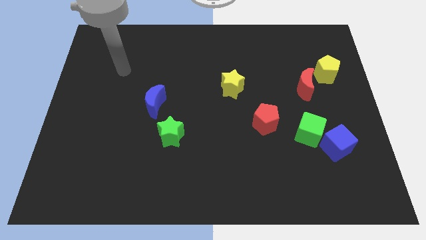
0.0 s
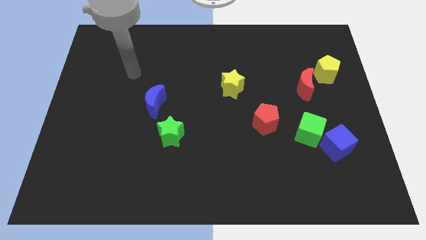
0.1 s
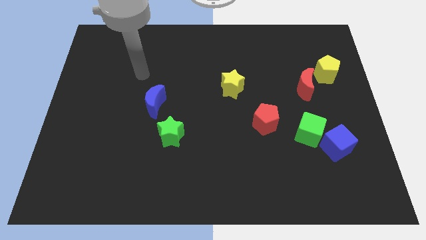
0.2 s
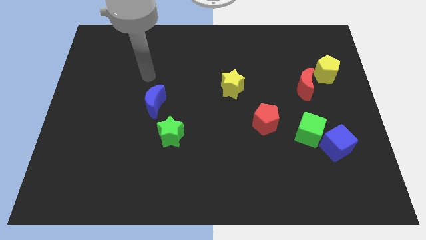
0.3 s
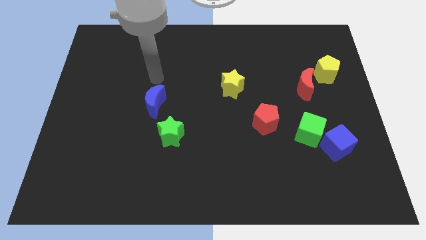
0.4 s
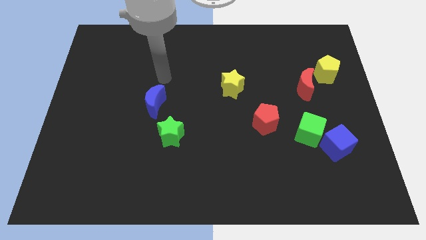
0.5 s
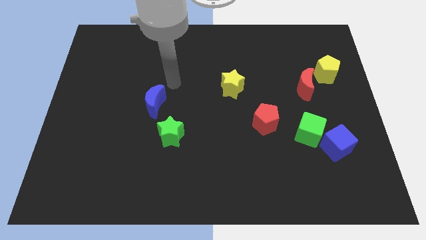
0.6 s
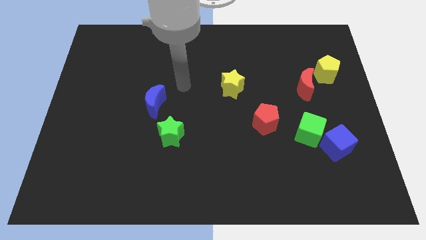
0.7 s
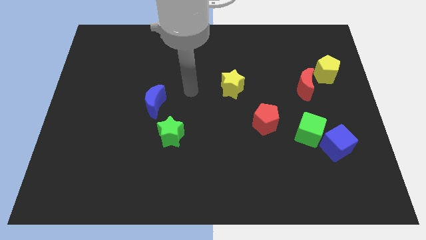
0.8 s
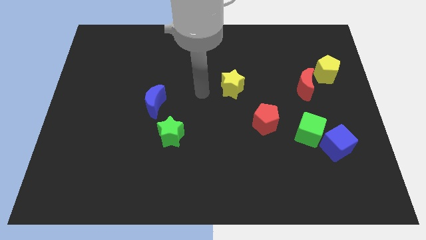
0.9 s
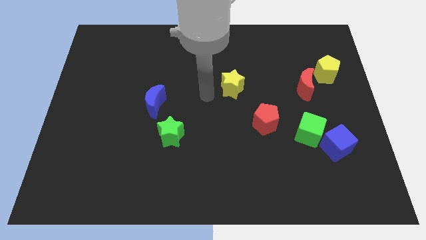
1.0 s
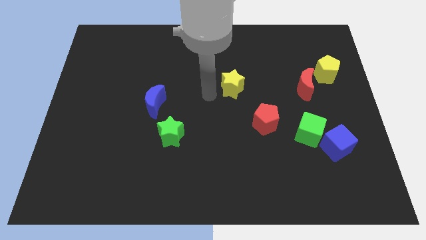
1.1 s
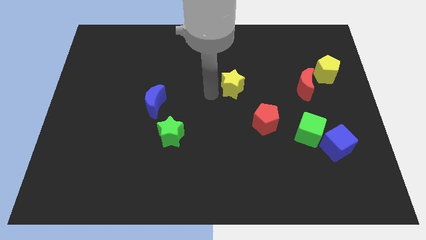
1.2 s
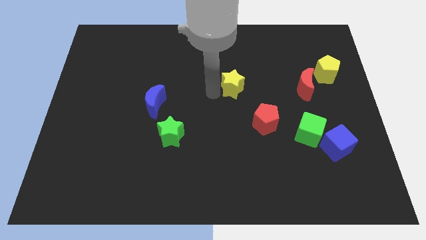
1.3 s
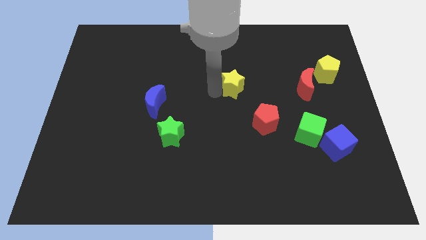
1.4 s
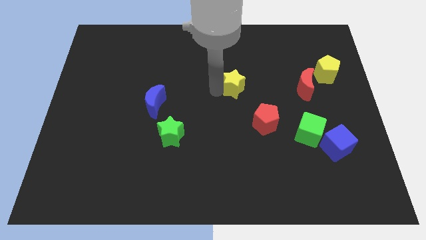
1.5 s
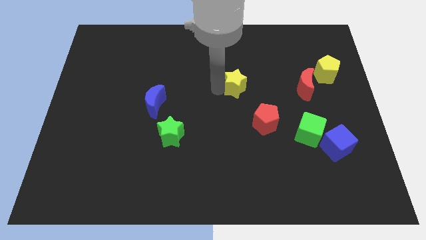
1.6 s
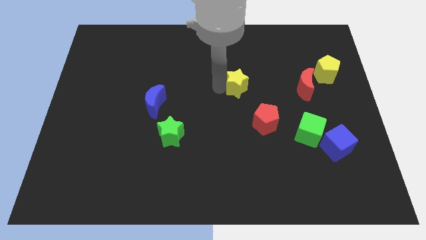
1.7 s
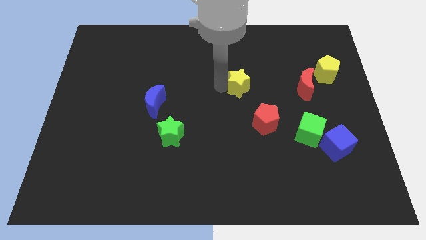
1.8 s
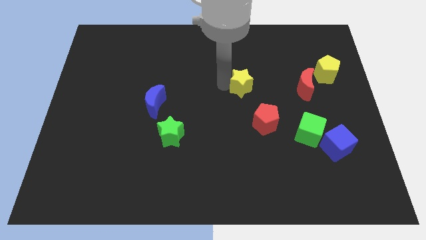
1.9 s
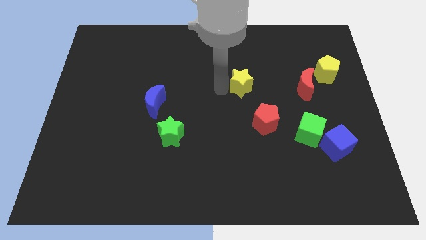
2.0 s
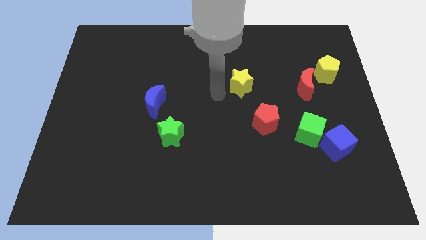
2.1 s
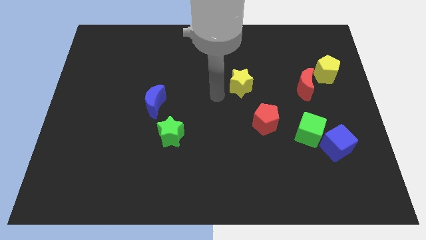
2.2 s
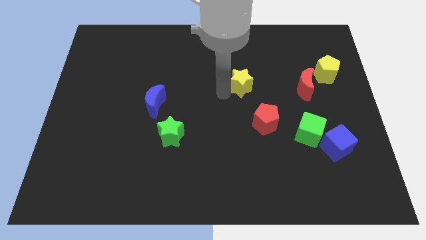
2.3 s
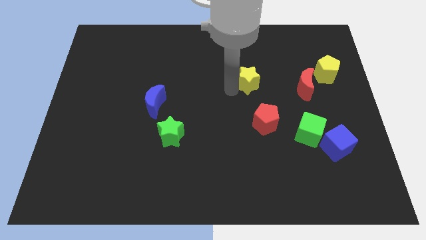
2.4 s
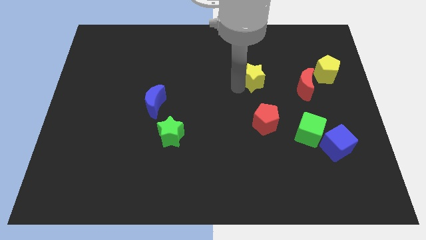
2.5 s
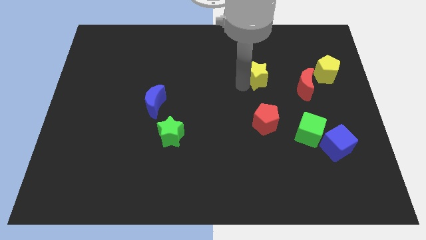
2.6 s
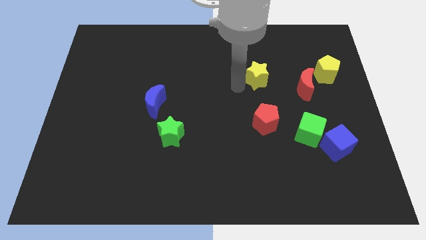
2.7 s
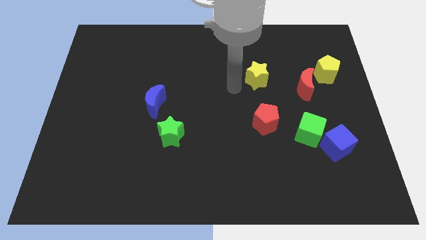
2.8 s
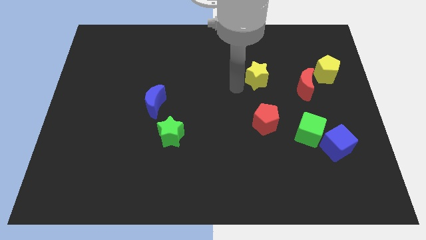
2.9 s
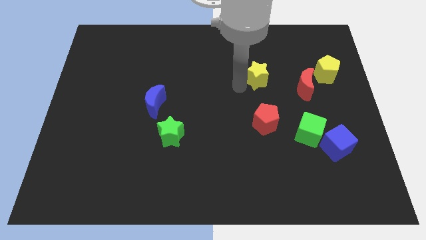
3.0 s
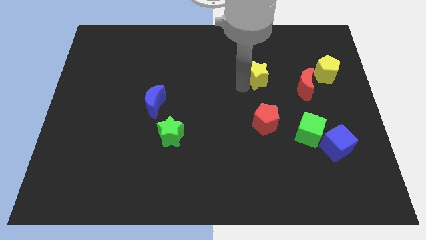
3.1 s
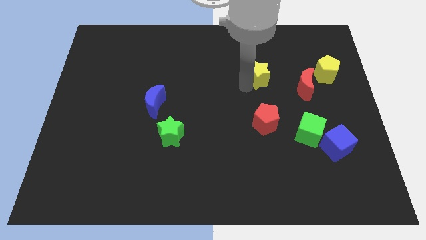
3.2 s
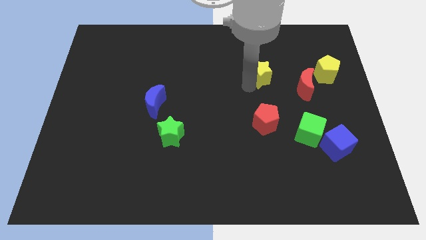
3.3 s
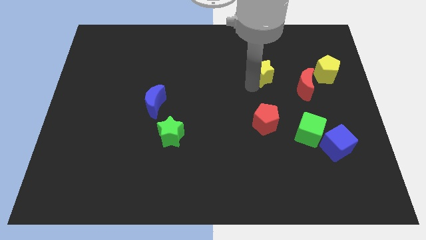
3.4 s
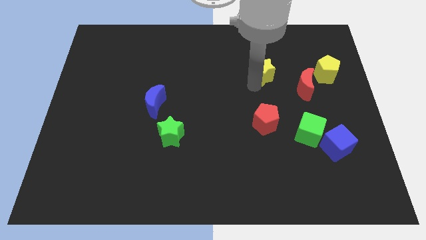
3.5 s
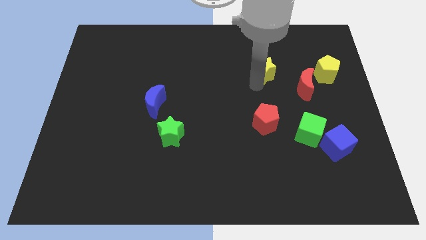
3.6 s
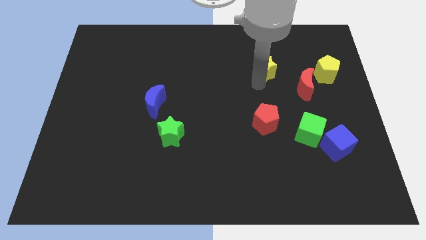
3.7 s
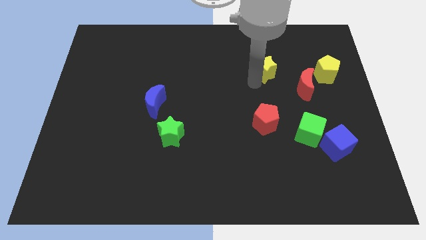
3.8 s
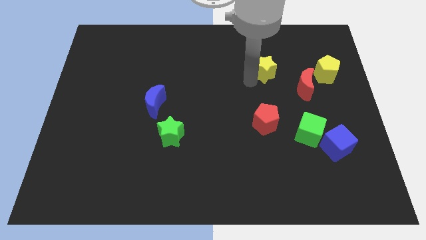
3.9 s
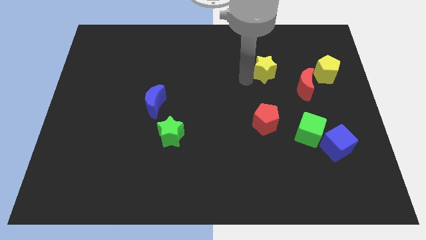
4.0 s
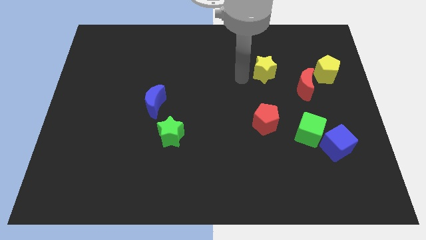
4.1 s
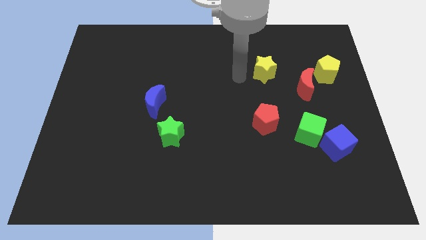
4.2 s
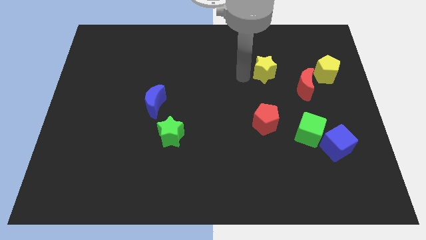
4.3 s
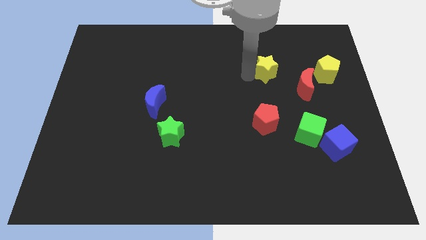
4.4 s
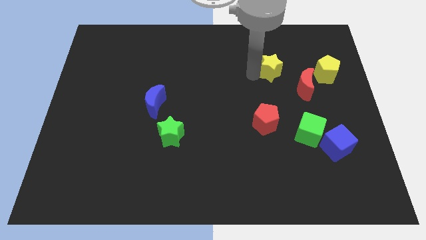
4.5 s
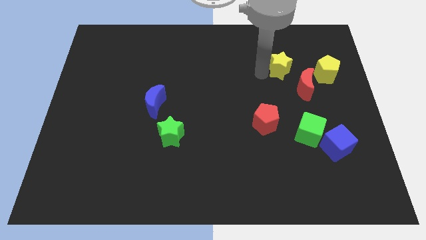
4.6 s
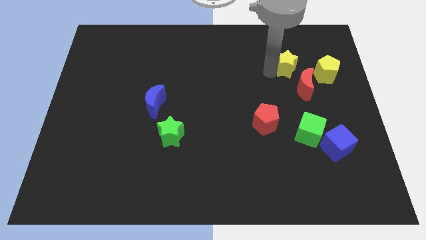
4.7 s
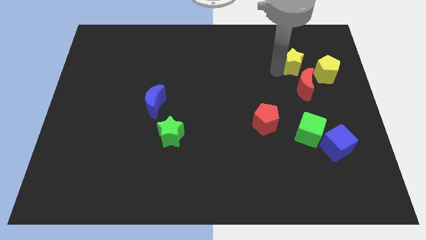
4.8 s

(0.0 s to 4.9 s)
push the yellow star diagonally up and to the left of the yellow pentagon

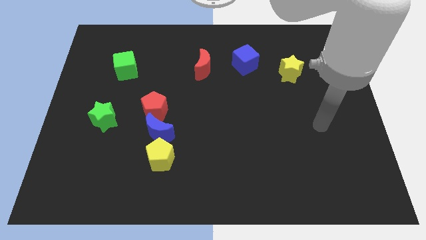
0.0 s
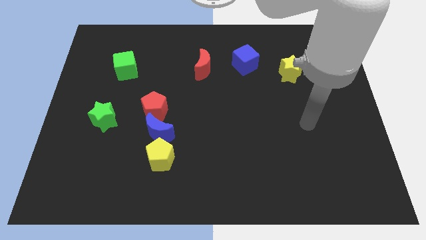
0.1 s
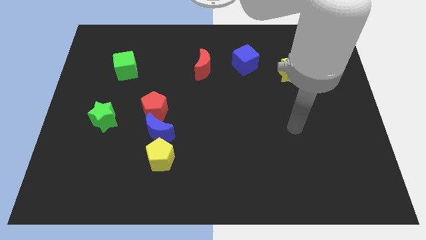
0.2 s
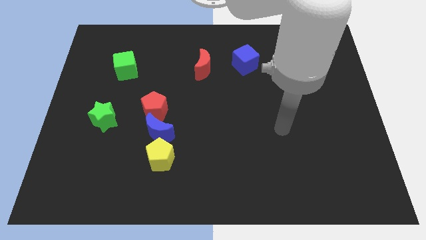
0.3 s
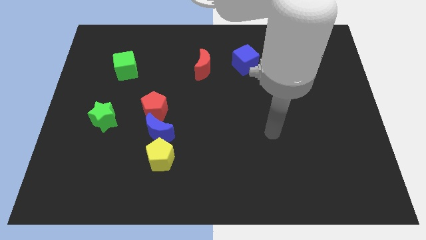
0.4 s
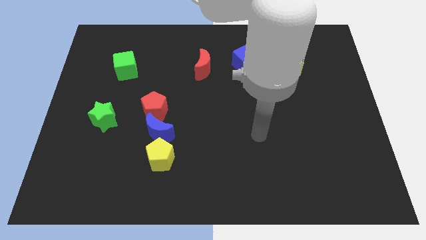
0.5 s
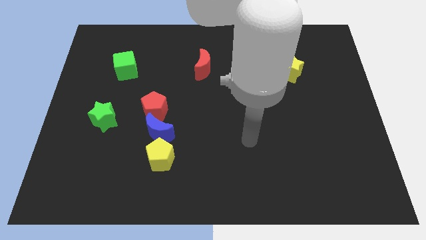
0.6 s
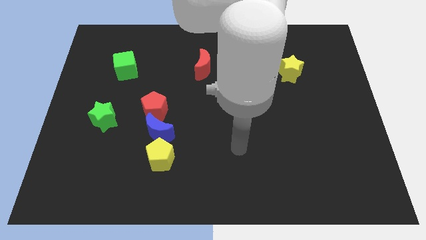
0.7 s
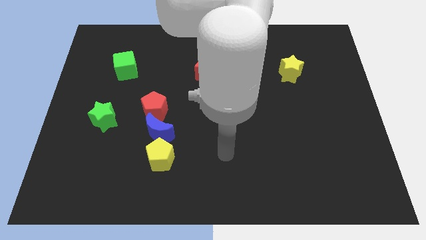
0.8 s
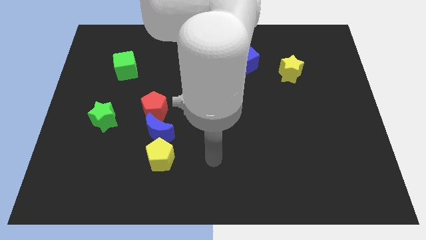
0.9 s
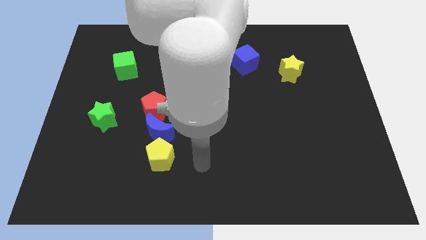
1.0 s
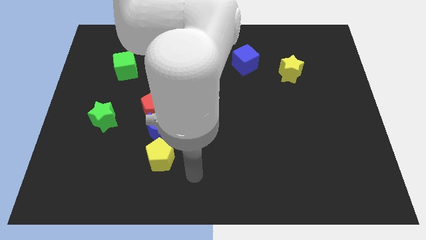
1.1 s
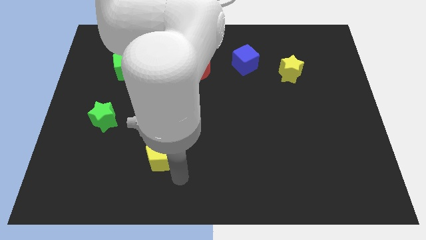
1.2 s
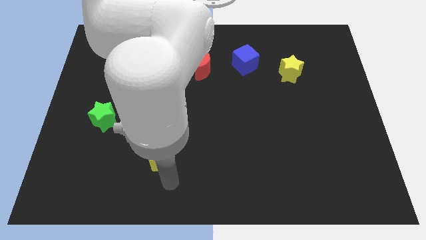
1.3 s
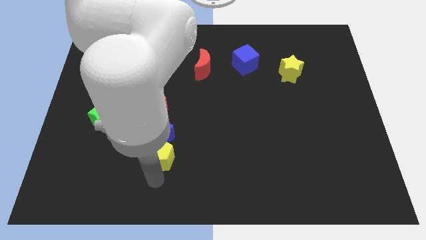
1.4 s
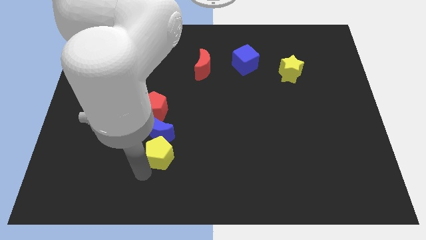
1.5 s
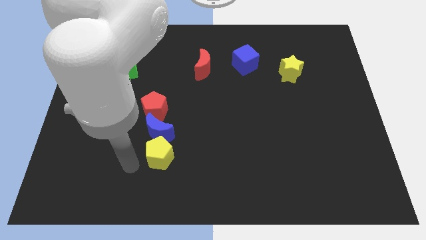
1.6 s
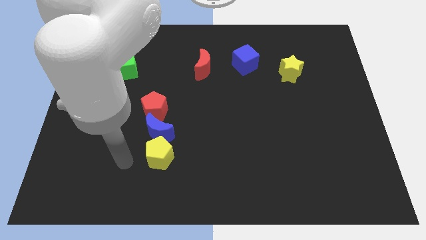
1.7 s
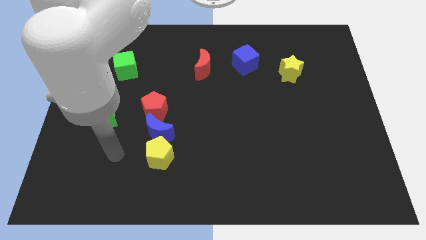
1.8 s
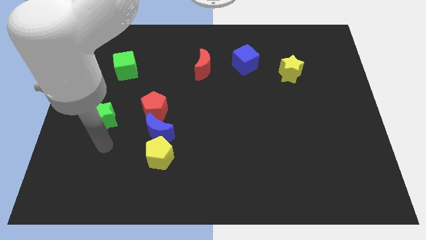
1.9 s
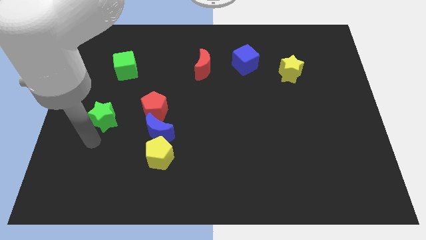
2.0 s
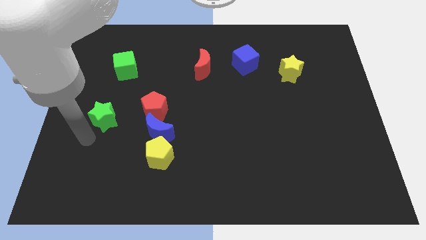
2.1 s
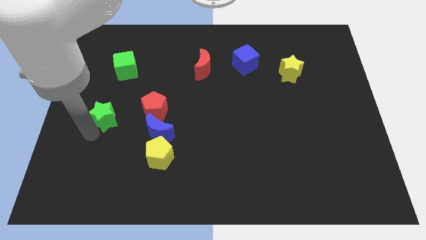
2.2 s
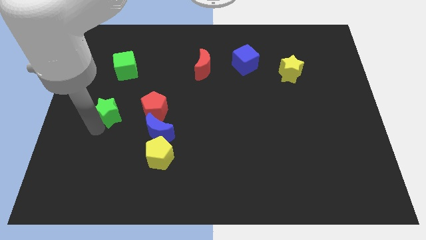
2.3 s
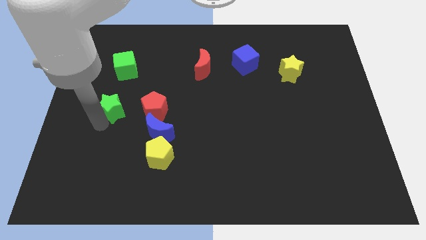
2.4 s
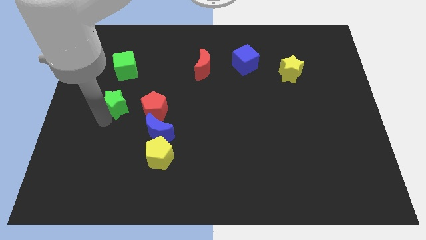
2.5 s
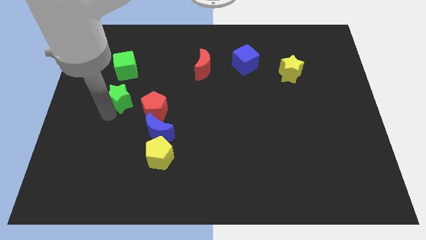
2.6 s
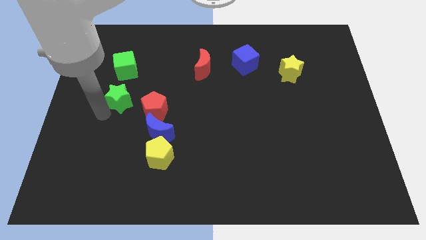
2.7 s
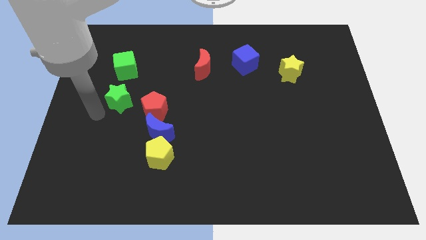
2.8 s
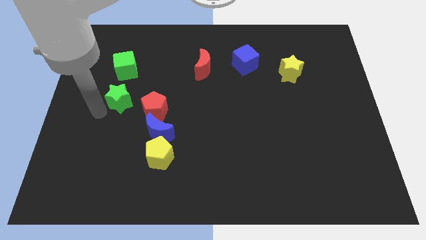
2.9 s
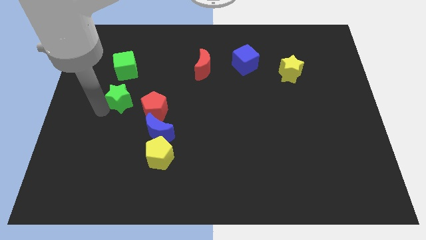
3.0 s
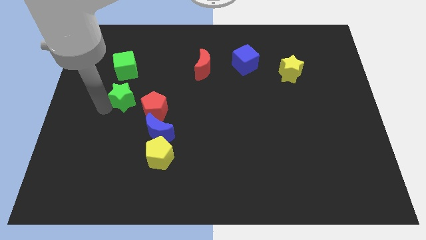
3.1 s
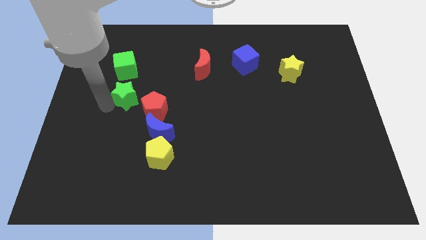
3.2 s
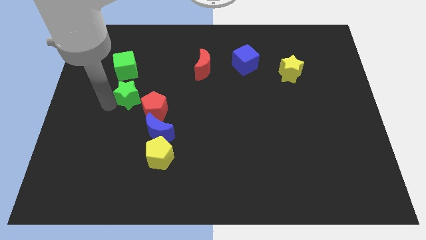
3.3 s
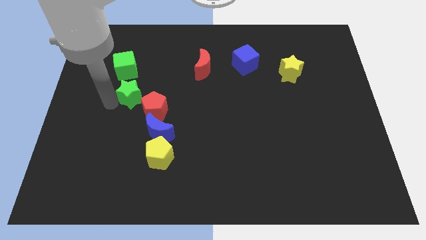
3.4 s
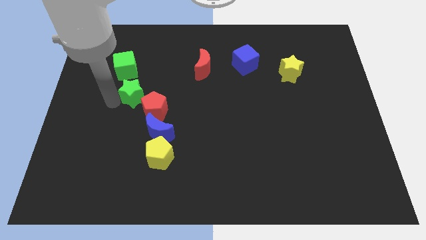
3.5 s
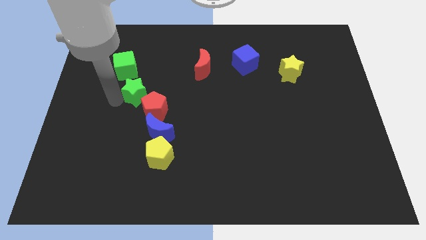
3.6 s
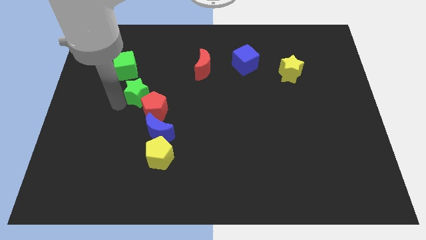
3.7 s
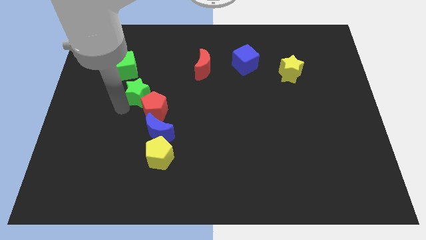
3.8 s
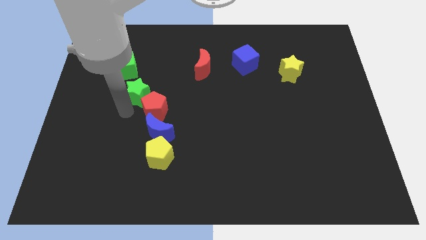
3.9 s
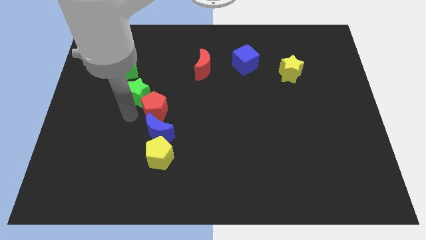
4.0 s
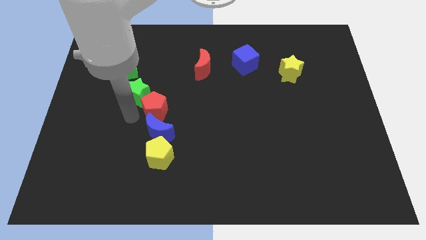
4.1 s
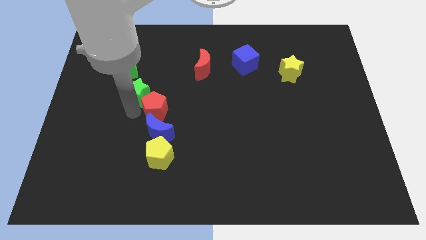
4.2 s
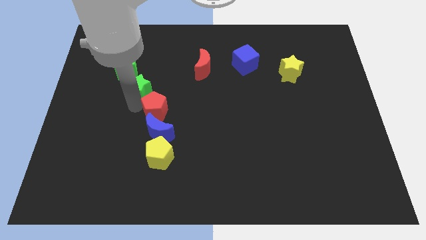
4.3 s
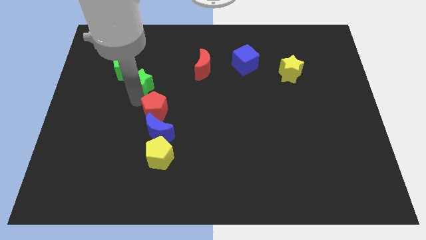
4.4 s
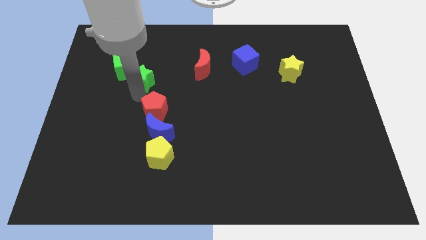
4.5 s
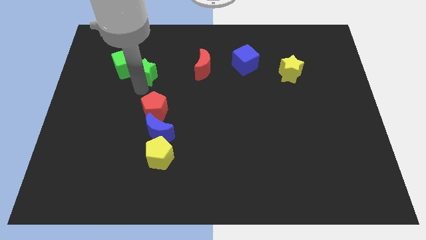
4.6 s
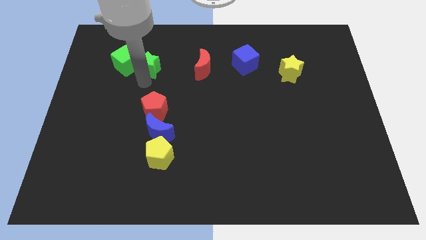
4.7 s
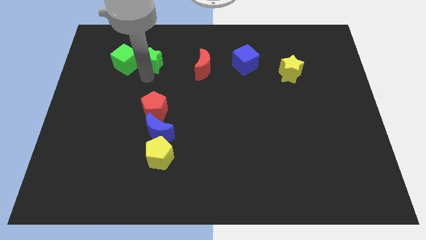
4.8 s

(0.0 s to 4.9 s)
move the green star to the top right of the green cube
